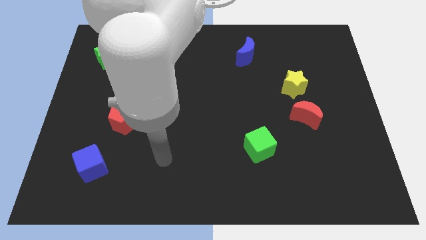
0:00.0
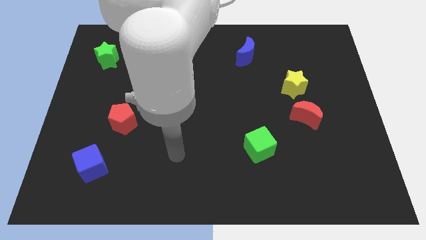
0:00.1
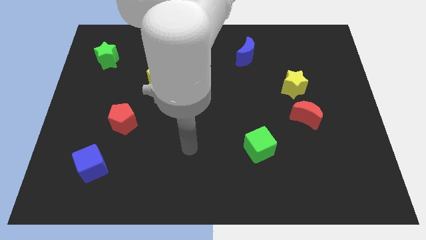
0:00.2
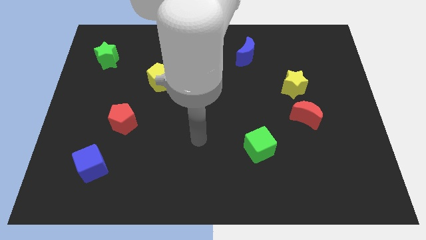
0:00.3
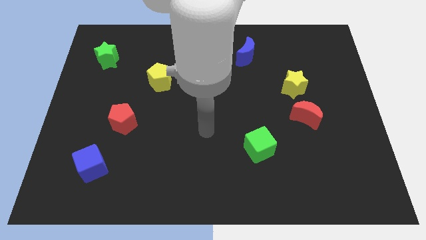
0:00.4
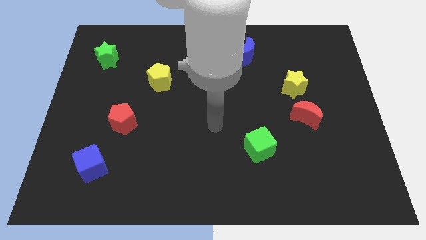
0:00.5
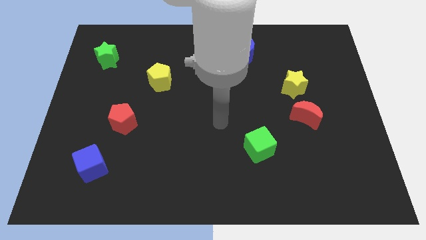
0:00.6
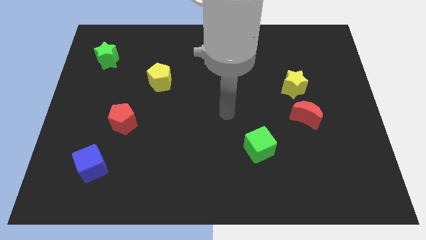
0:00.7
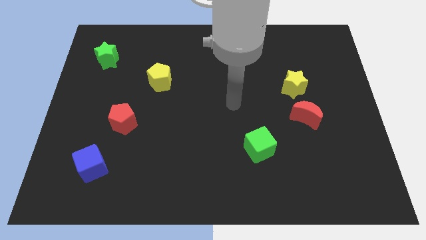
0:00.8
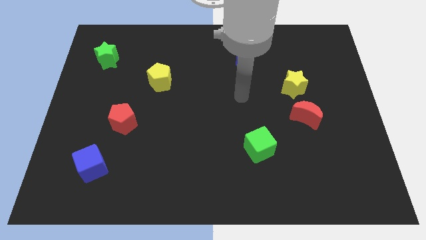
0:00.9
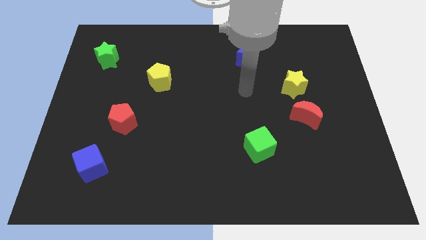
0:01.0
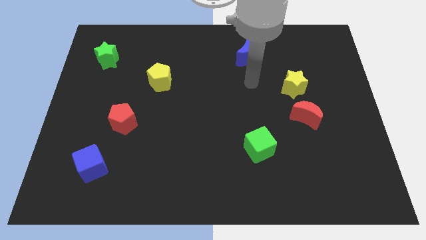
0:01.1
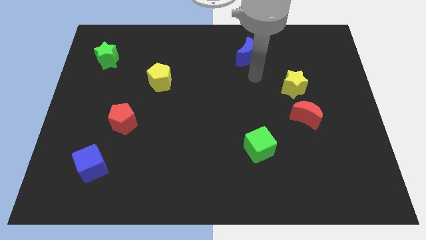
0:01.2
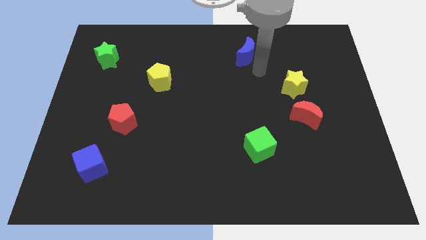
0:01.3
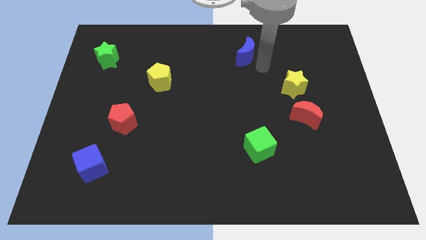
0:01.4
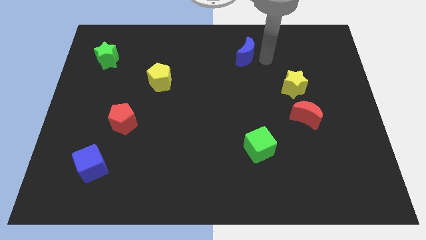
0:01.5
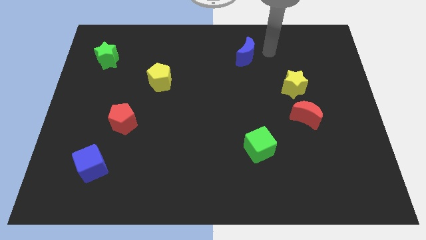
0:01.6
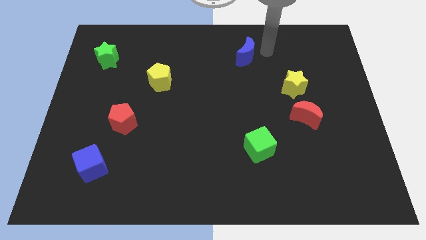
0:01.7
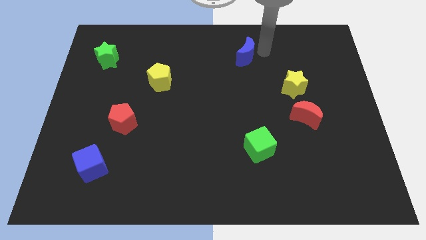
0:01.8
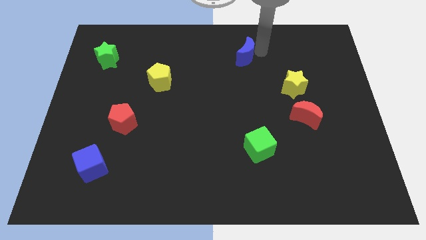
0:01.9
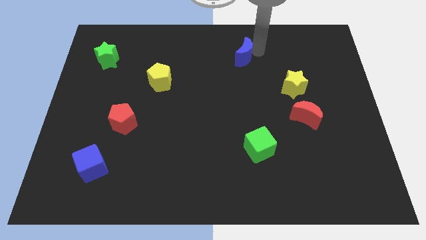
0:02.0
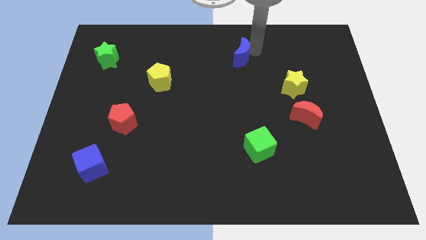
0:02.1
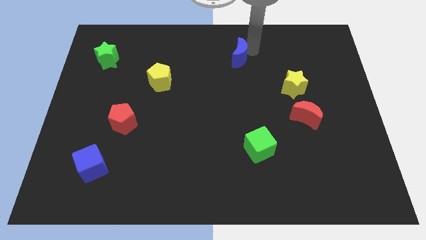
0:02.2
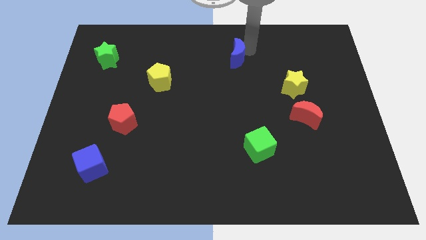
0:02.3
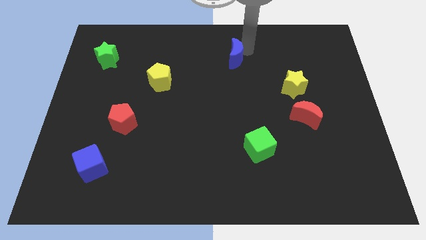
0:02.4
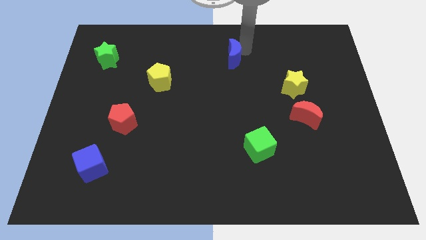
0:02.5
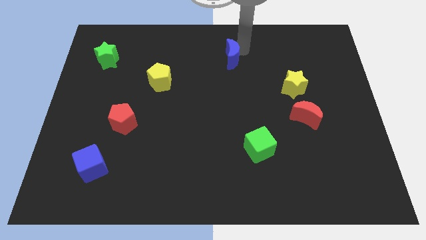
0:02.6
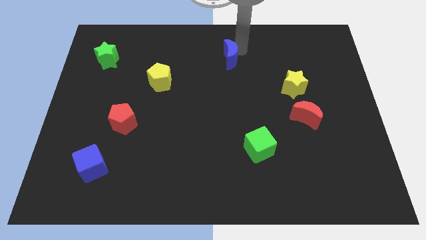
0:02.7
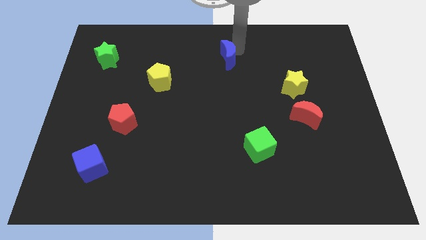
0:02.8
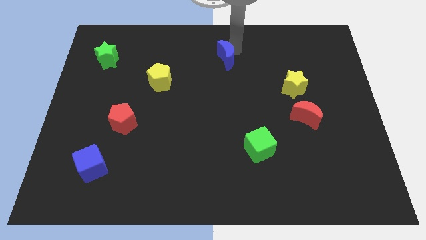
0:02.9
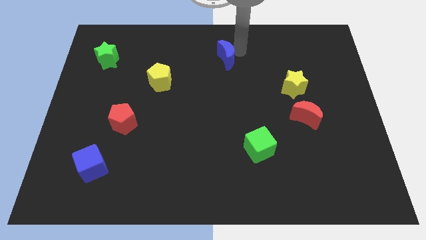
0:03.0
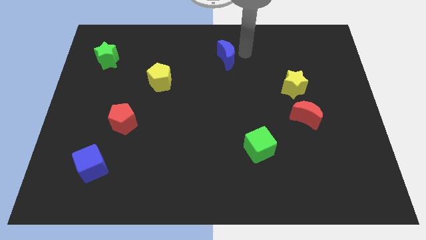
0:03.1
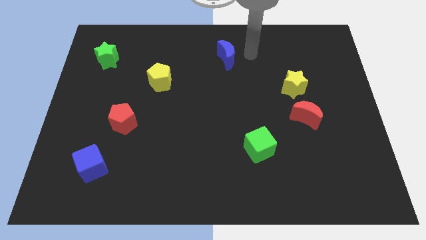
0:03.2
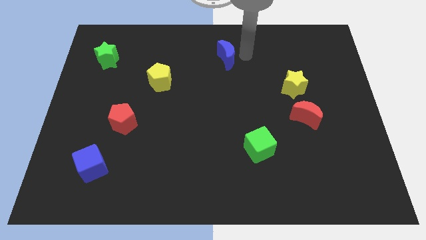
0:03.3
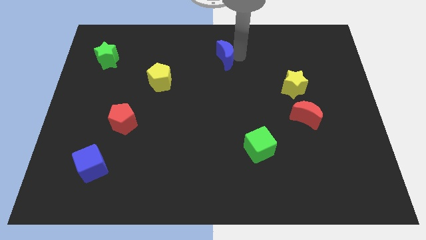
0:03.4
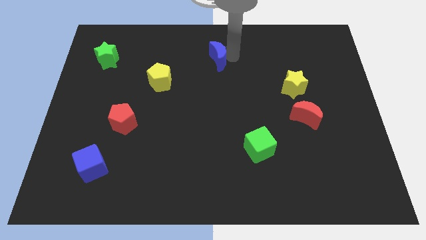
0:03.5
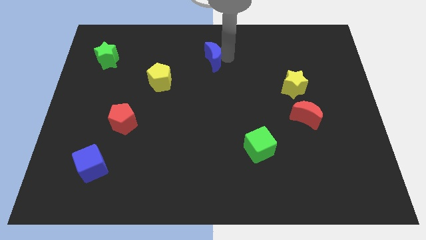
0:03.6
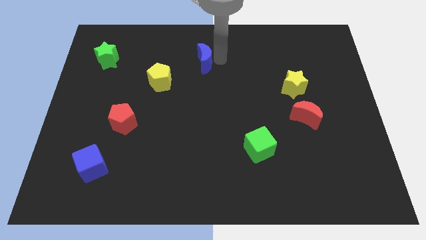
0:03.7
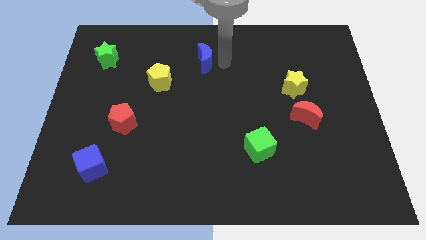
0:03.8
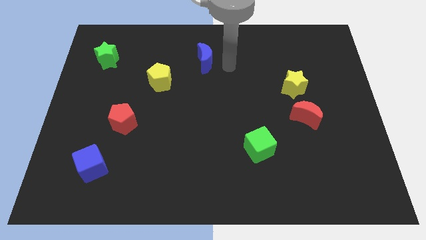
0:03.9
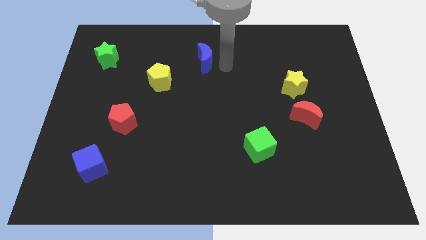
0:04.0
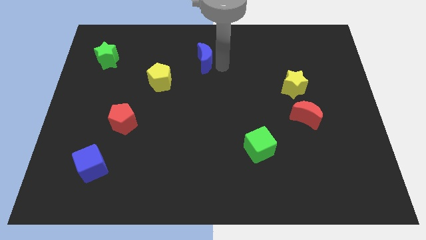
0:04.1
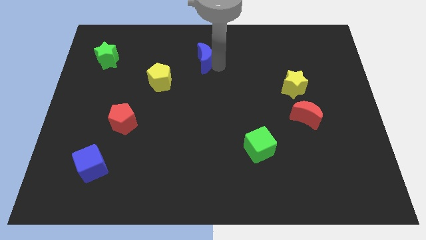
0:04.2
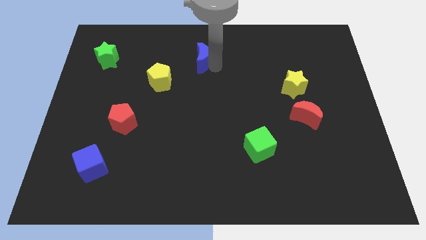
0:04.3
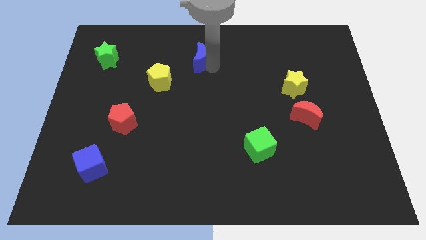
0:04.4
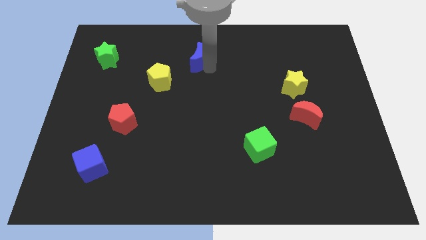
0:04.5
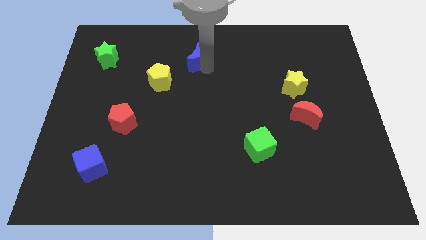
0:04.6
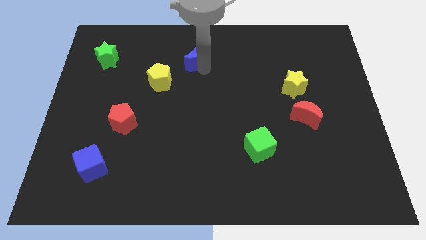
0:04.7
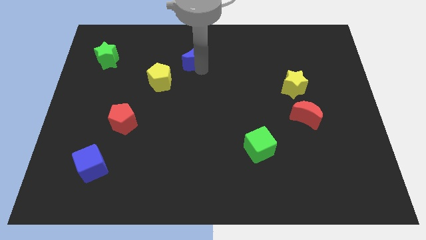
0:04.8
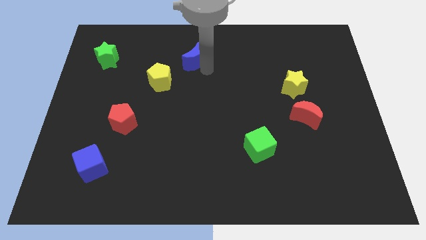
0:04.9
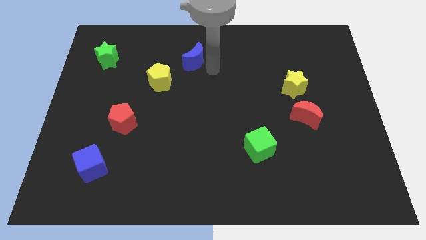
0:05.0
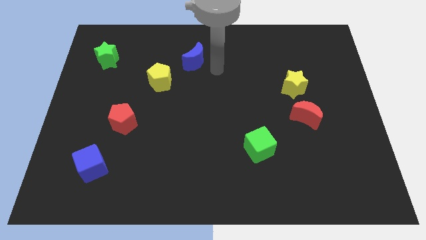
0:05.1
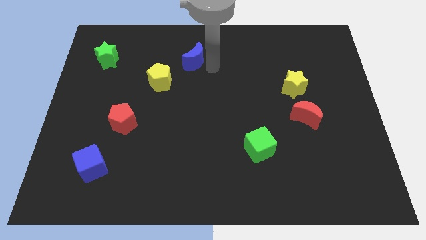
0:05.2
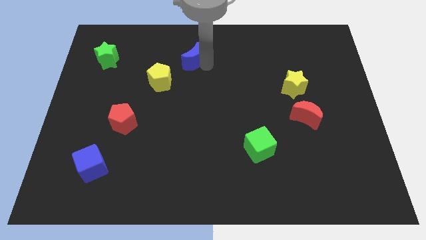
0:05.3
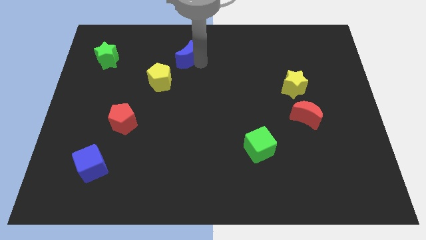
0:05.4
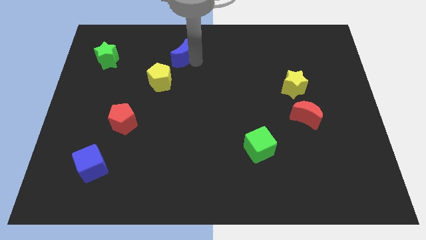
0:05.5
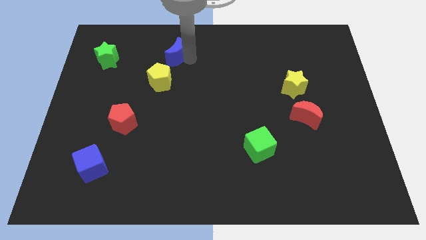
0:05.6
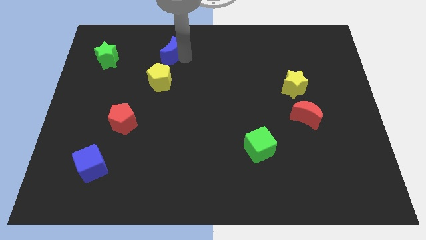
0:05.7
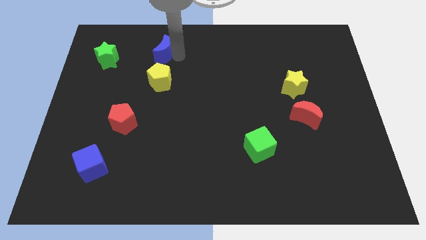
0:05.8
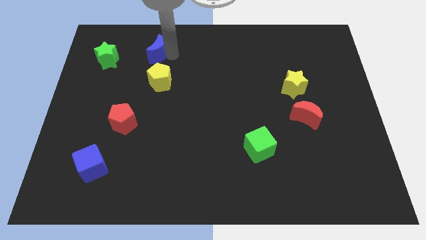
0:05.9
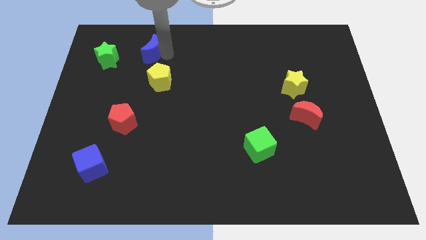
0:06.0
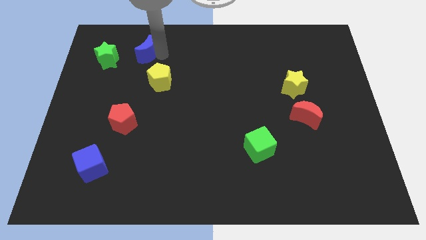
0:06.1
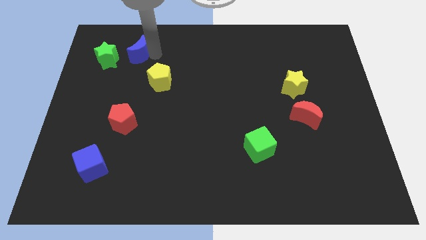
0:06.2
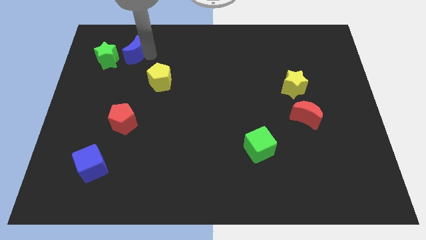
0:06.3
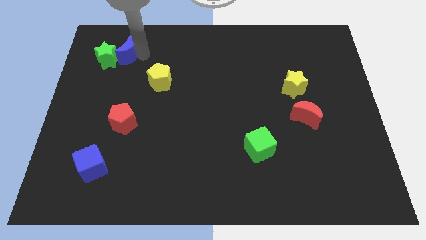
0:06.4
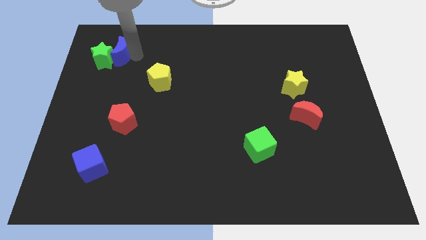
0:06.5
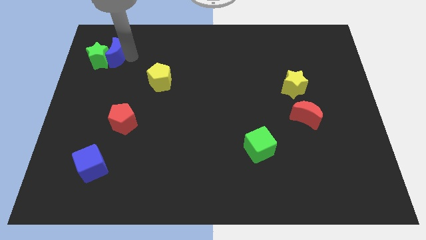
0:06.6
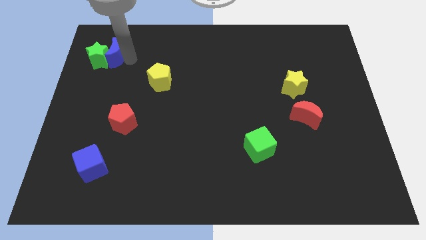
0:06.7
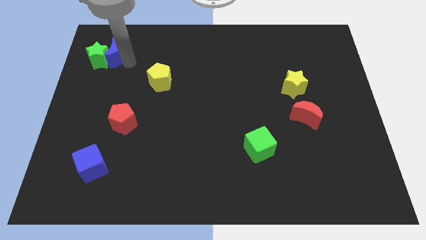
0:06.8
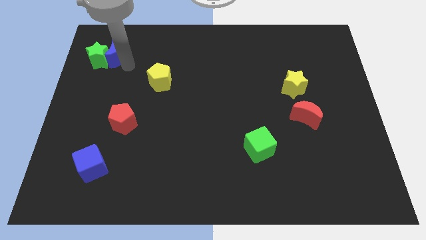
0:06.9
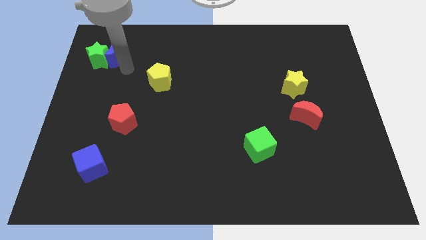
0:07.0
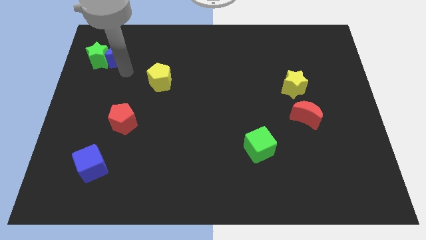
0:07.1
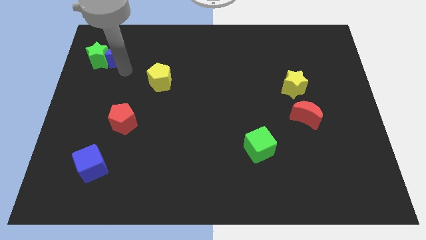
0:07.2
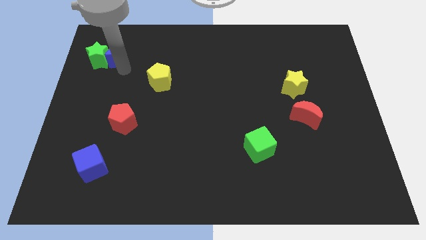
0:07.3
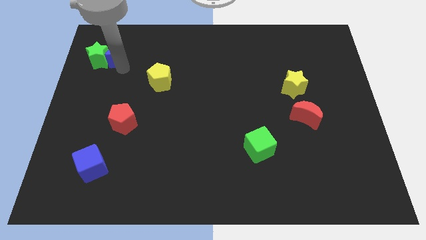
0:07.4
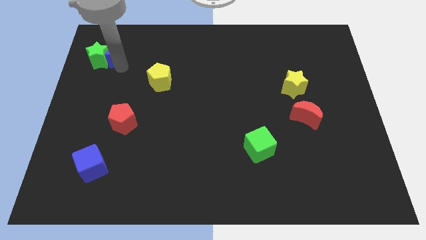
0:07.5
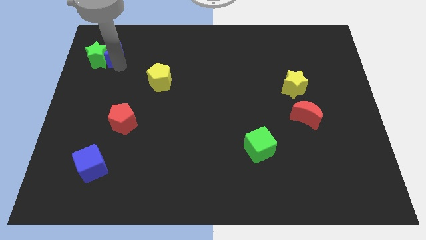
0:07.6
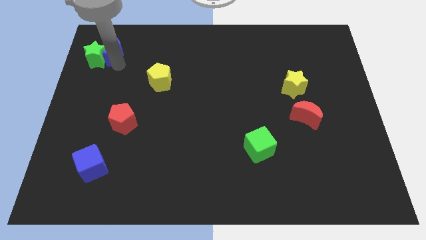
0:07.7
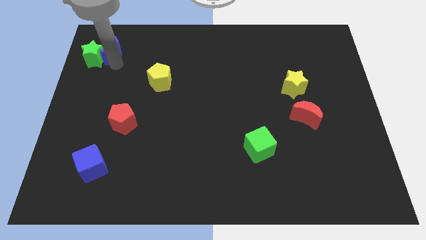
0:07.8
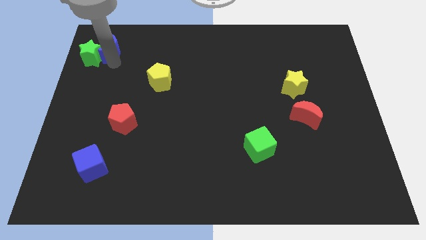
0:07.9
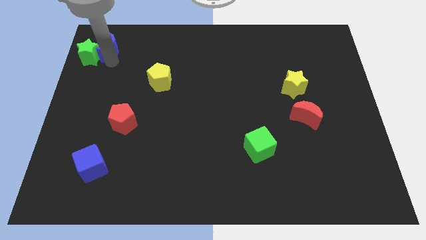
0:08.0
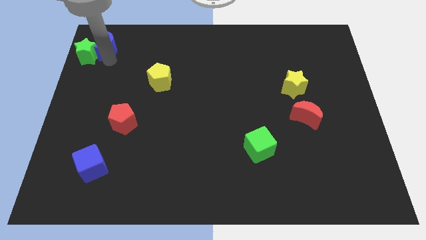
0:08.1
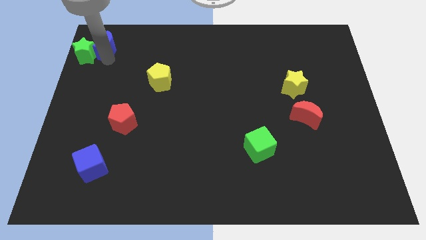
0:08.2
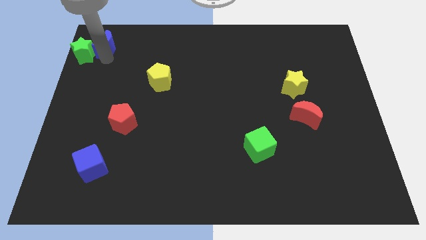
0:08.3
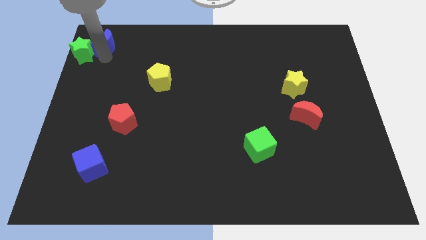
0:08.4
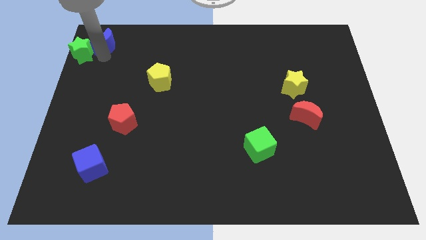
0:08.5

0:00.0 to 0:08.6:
move the blue moon to the top left corner
